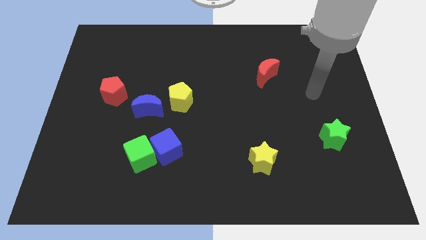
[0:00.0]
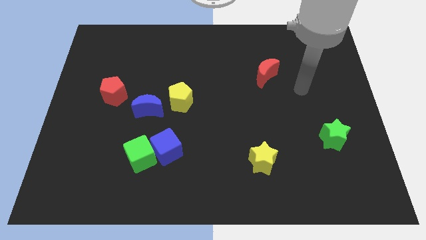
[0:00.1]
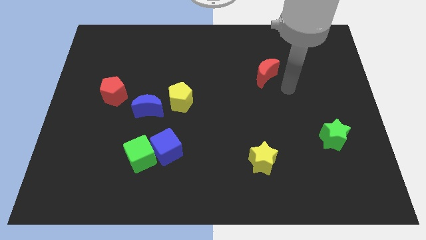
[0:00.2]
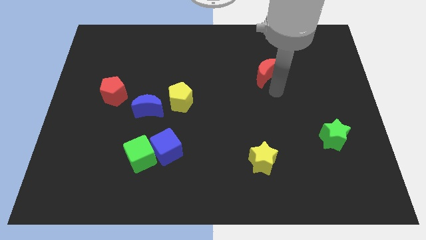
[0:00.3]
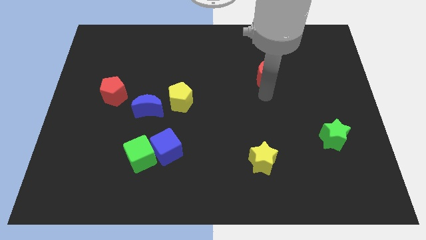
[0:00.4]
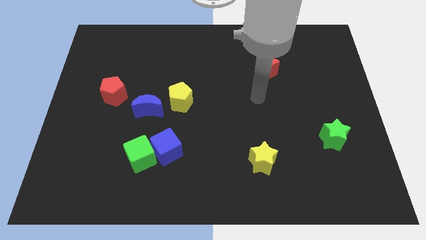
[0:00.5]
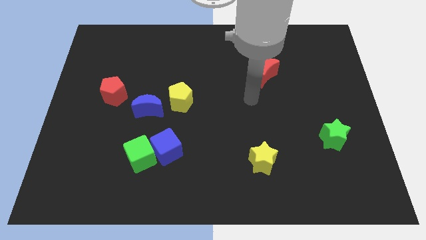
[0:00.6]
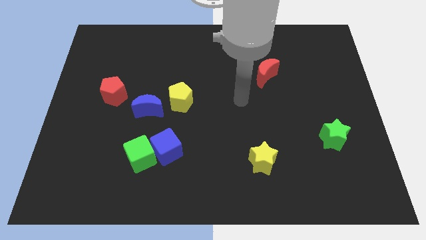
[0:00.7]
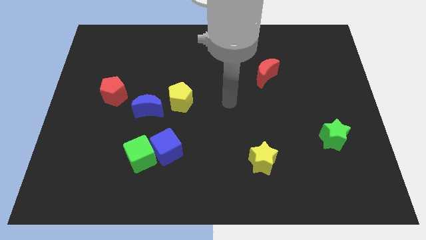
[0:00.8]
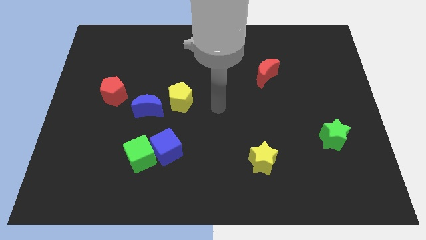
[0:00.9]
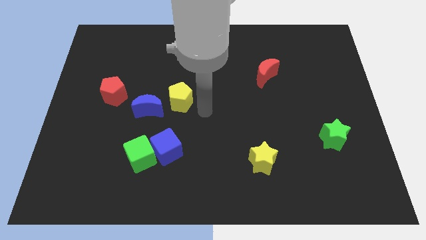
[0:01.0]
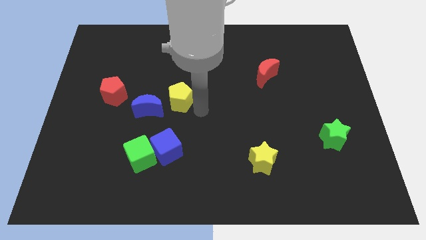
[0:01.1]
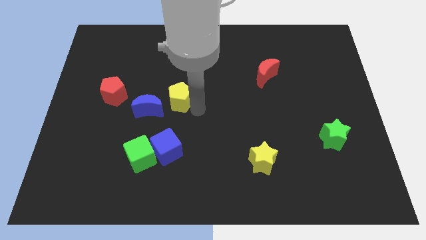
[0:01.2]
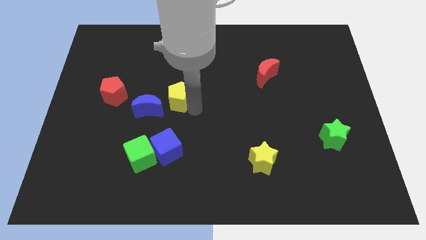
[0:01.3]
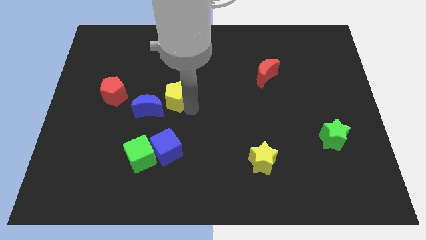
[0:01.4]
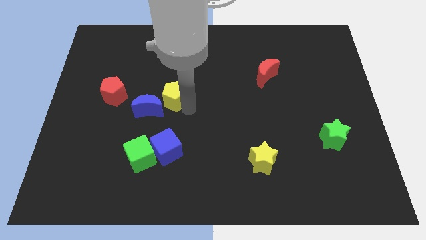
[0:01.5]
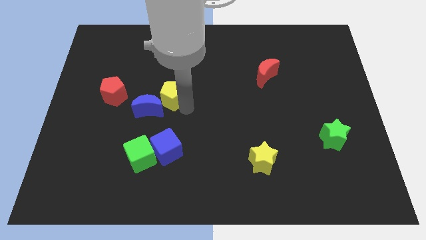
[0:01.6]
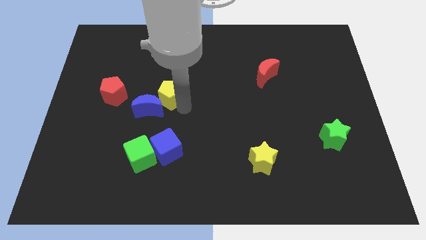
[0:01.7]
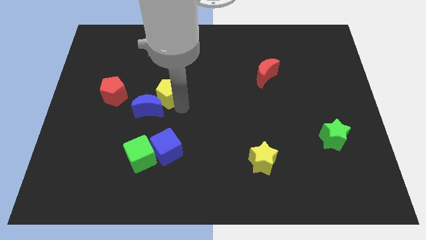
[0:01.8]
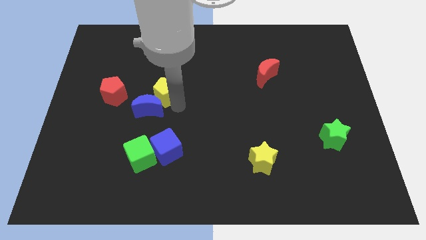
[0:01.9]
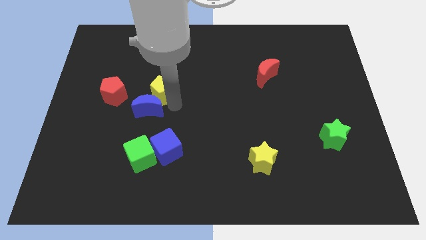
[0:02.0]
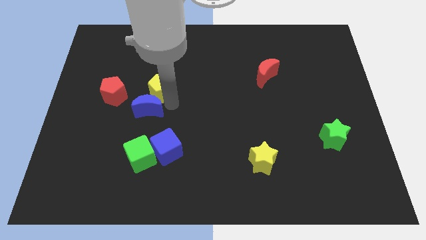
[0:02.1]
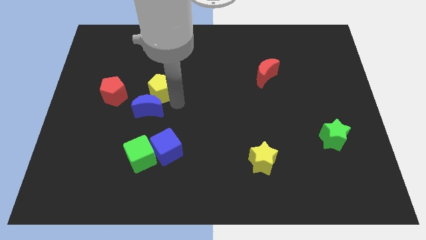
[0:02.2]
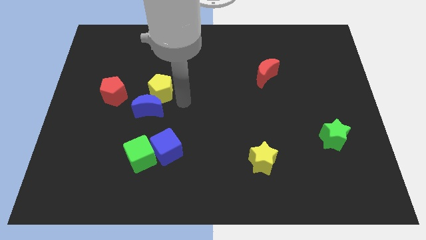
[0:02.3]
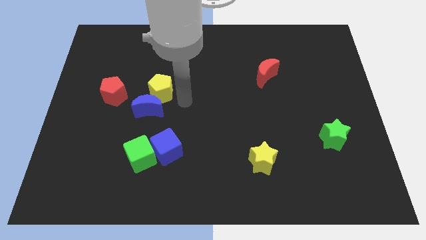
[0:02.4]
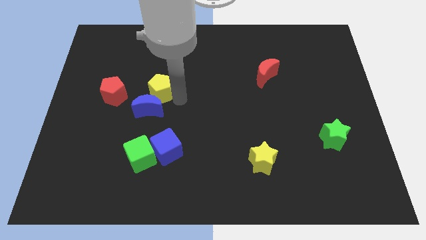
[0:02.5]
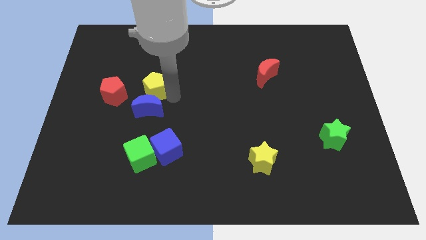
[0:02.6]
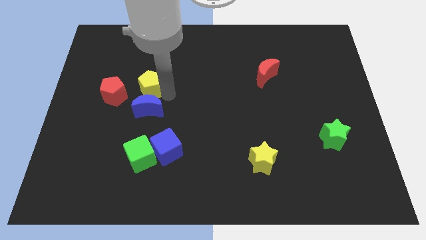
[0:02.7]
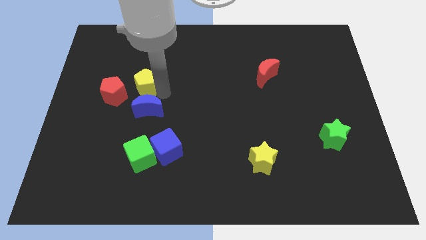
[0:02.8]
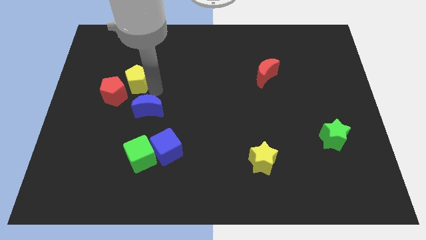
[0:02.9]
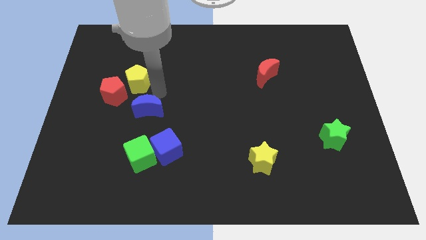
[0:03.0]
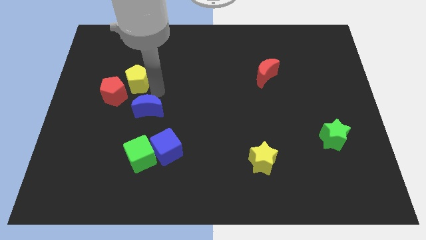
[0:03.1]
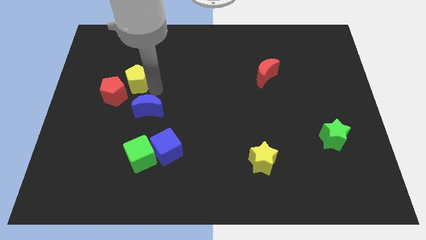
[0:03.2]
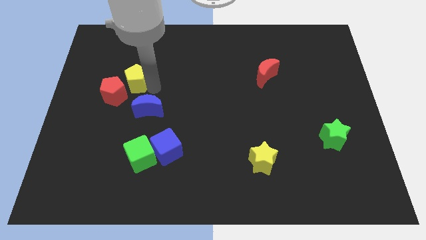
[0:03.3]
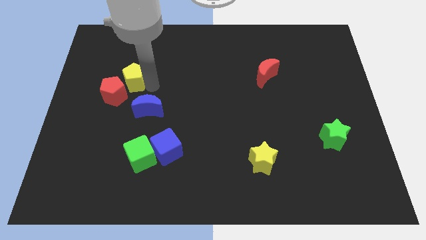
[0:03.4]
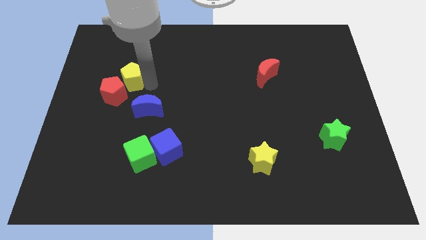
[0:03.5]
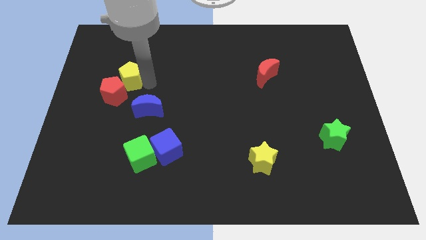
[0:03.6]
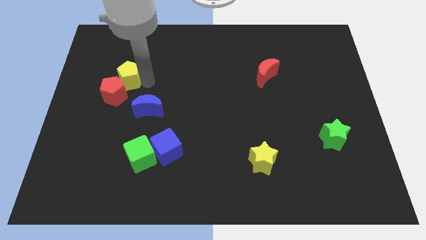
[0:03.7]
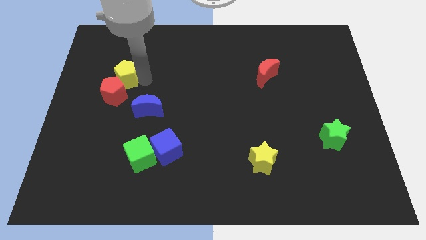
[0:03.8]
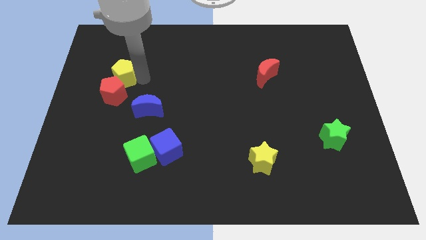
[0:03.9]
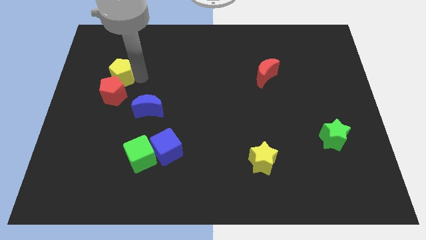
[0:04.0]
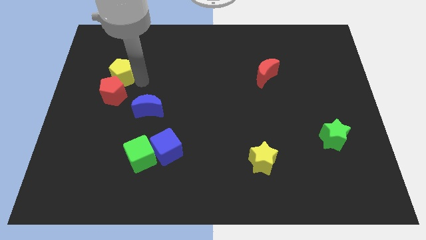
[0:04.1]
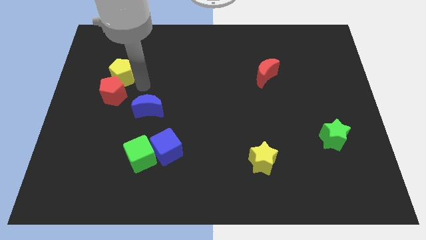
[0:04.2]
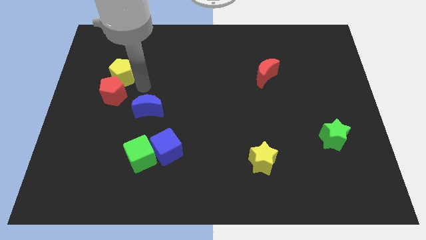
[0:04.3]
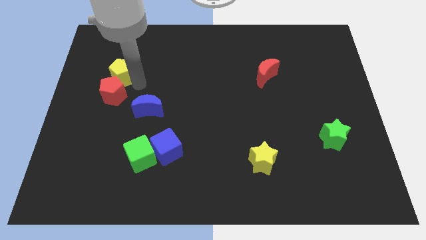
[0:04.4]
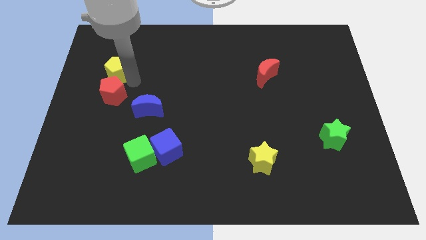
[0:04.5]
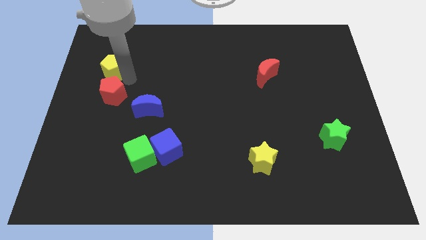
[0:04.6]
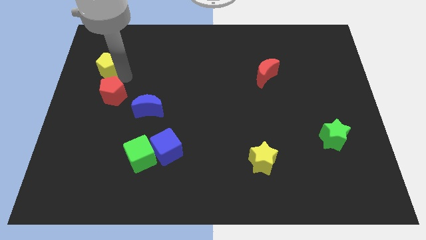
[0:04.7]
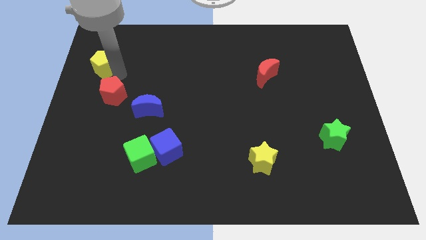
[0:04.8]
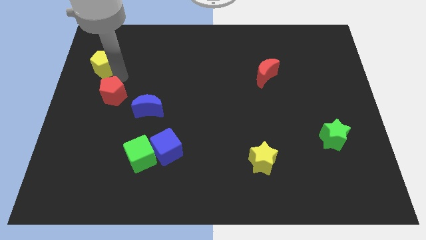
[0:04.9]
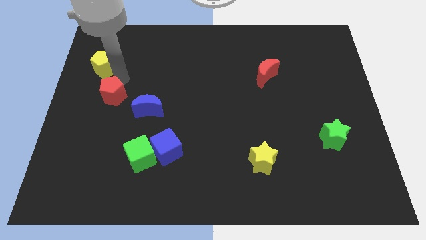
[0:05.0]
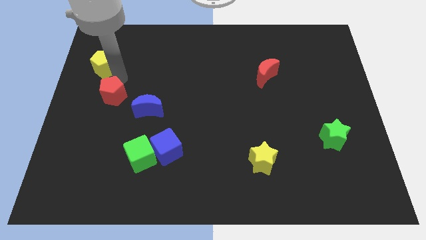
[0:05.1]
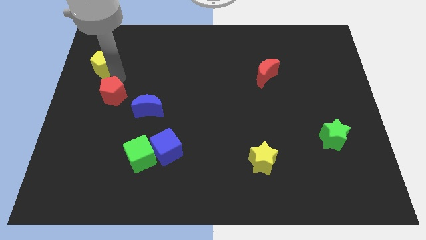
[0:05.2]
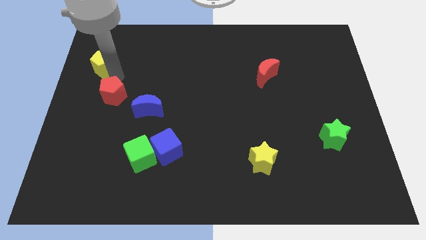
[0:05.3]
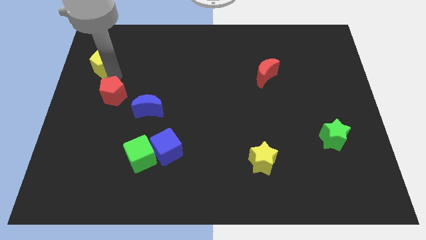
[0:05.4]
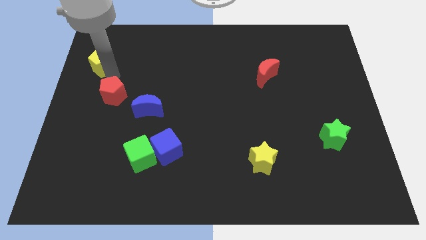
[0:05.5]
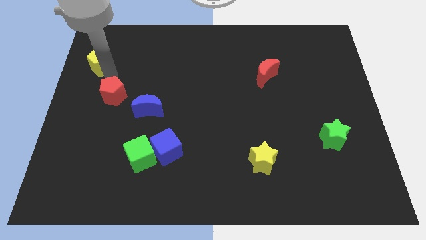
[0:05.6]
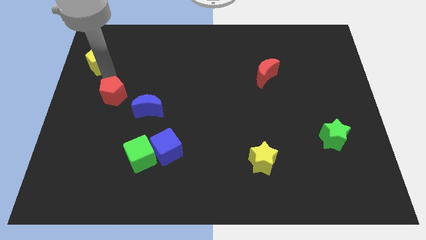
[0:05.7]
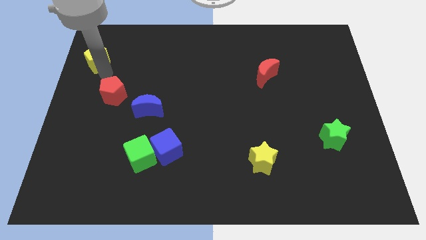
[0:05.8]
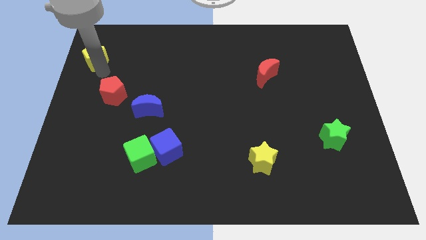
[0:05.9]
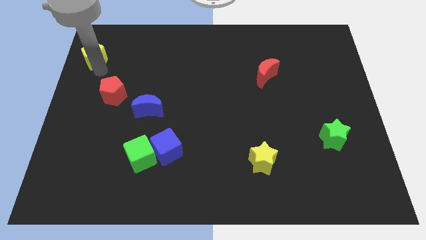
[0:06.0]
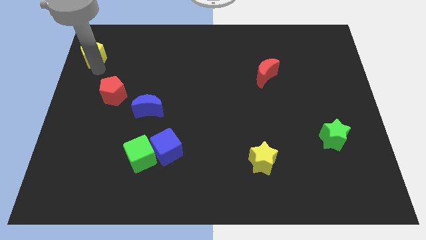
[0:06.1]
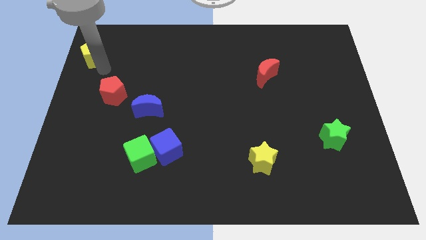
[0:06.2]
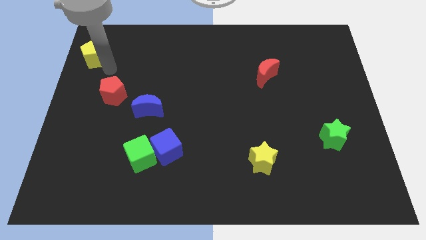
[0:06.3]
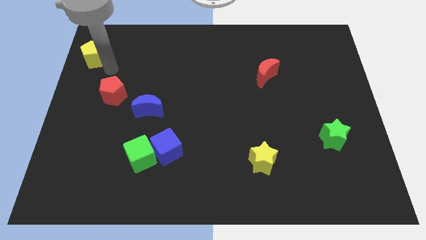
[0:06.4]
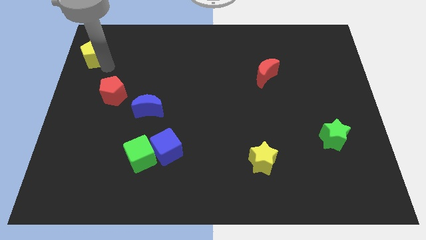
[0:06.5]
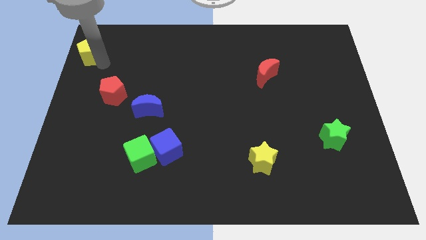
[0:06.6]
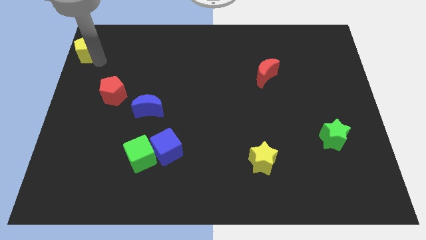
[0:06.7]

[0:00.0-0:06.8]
put the yellow pentagon to the top left corner
